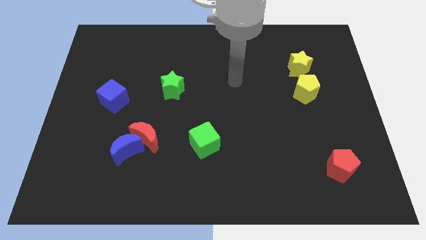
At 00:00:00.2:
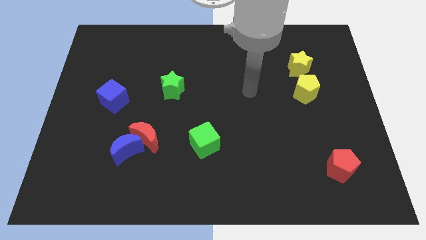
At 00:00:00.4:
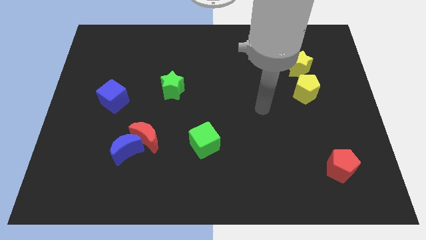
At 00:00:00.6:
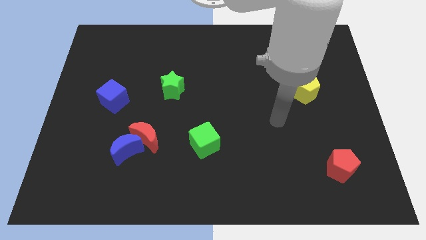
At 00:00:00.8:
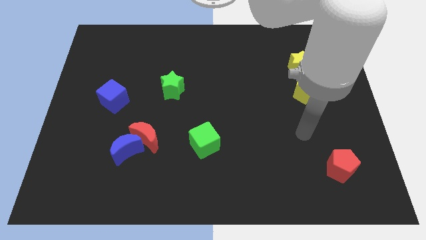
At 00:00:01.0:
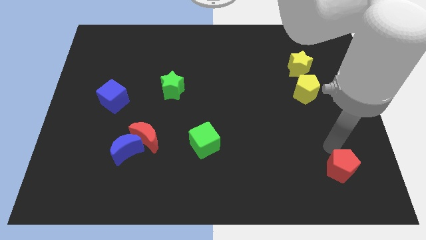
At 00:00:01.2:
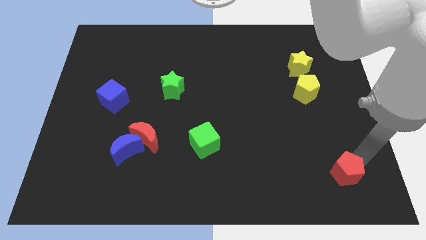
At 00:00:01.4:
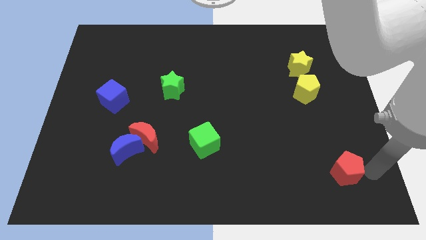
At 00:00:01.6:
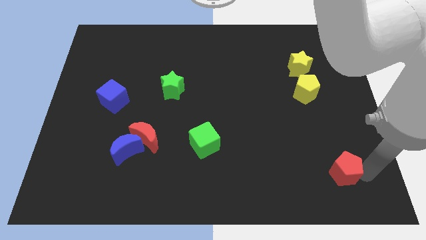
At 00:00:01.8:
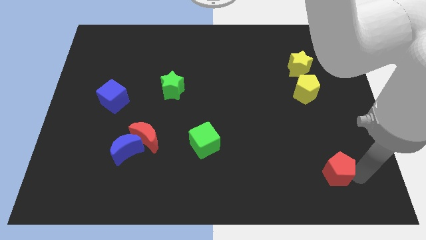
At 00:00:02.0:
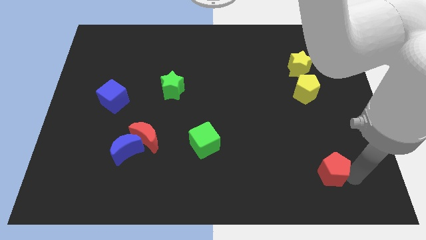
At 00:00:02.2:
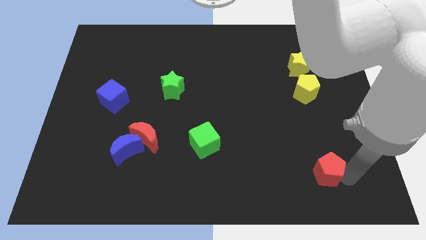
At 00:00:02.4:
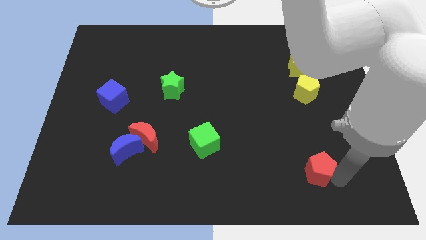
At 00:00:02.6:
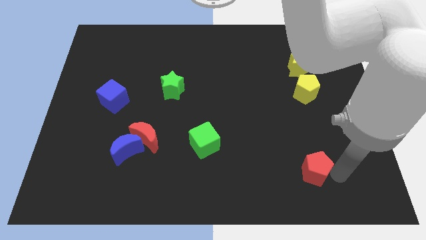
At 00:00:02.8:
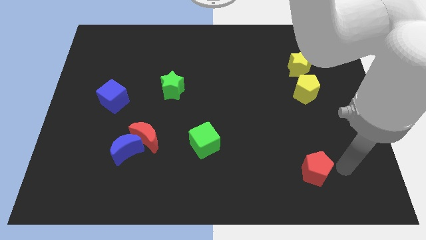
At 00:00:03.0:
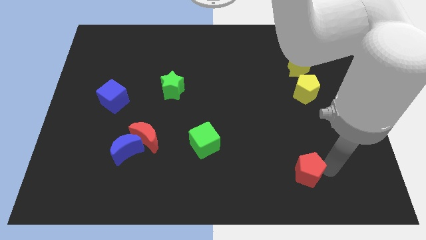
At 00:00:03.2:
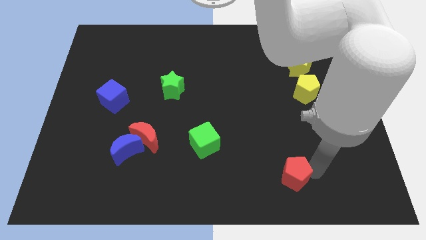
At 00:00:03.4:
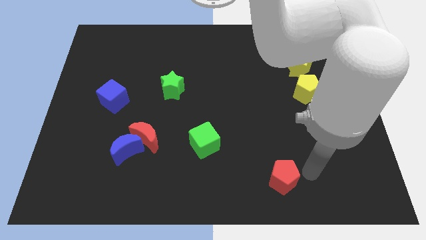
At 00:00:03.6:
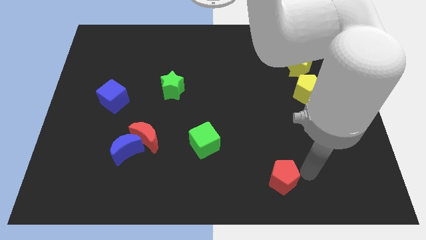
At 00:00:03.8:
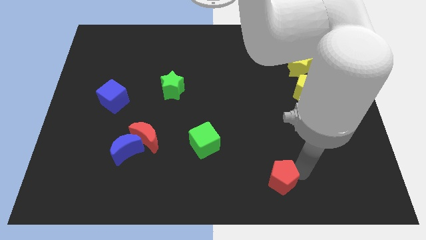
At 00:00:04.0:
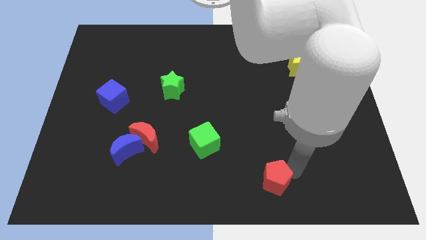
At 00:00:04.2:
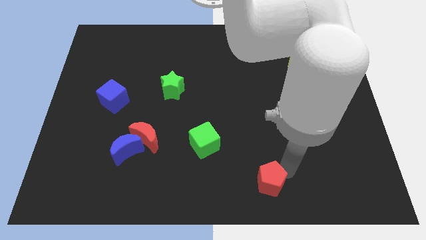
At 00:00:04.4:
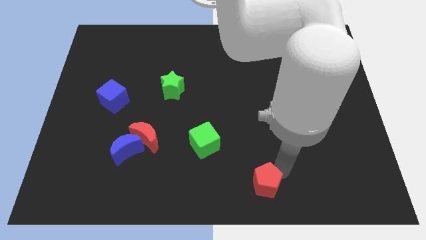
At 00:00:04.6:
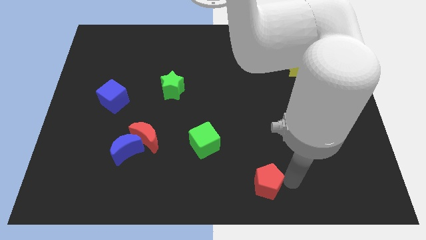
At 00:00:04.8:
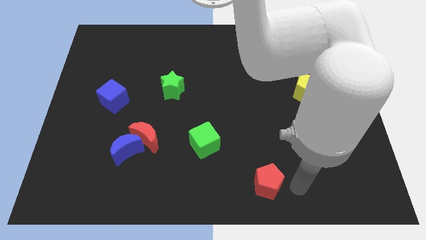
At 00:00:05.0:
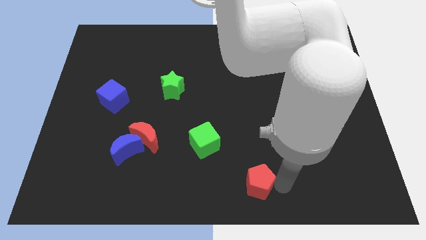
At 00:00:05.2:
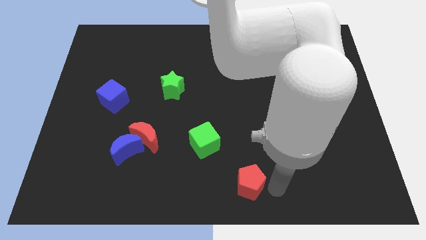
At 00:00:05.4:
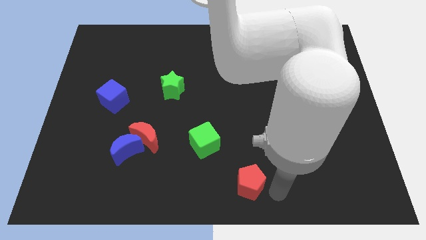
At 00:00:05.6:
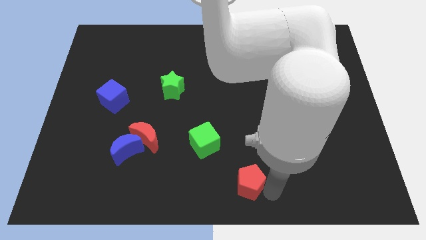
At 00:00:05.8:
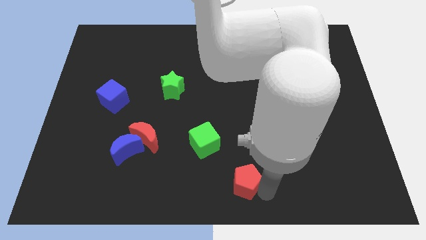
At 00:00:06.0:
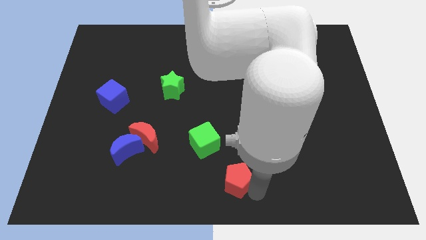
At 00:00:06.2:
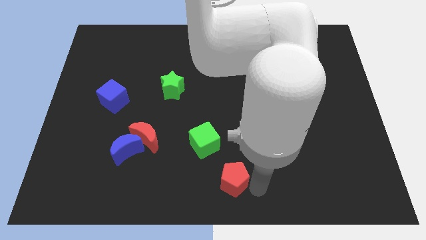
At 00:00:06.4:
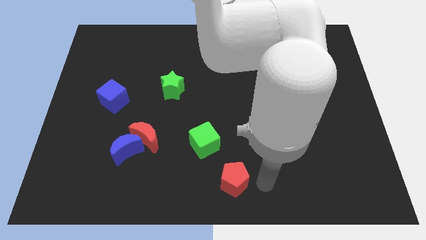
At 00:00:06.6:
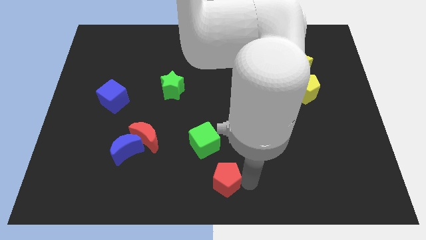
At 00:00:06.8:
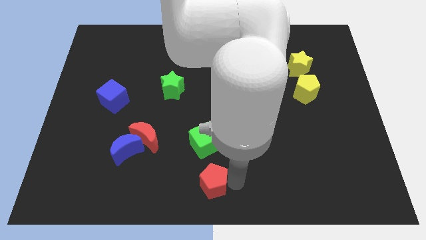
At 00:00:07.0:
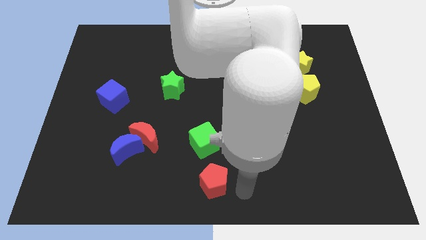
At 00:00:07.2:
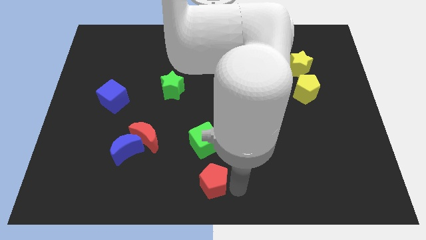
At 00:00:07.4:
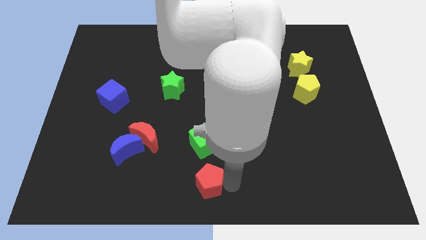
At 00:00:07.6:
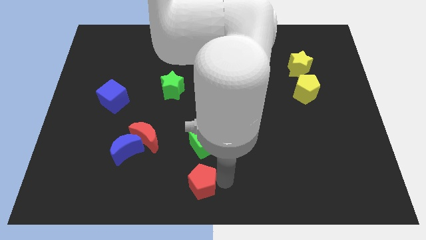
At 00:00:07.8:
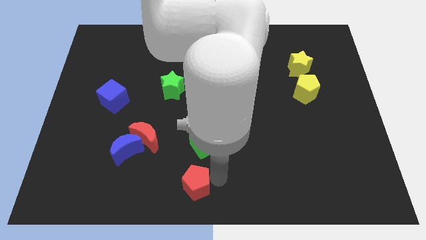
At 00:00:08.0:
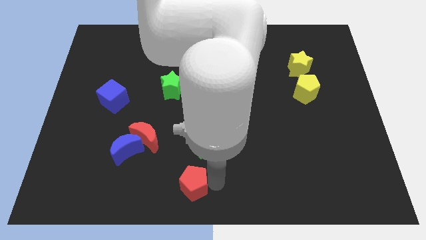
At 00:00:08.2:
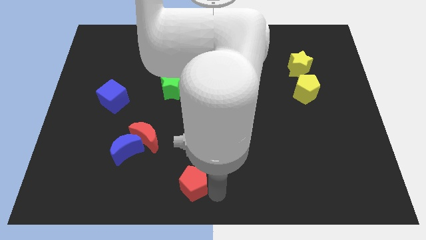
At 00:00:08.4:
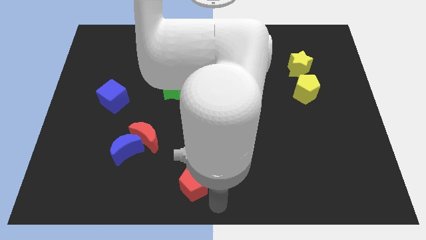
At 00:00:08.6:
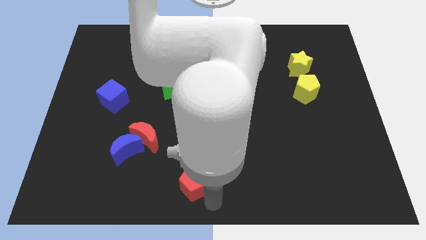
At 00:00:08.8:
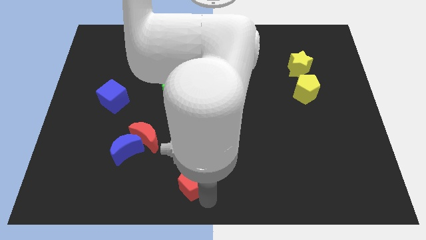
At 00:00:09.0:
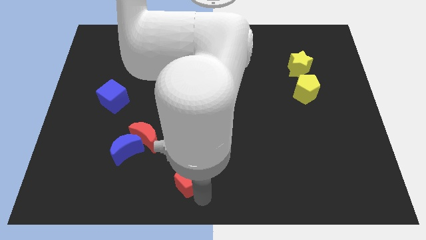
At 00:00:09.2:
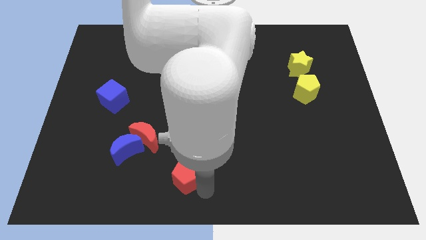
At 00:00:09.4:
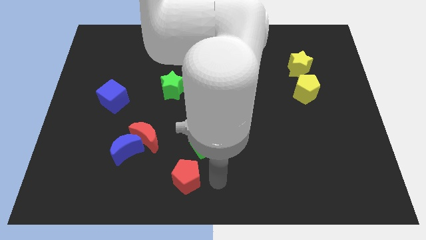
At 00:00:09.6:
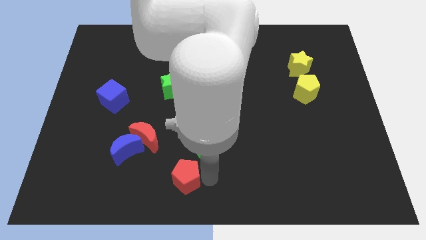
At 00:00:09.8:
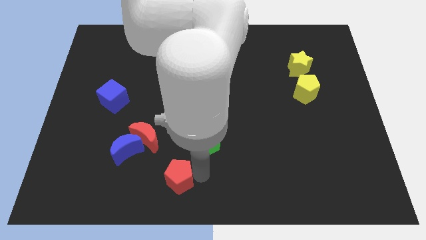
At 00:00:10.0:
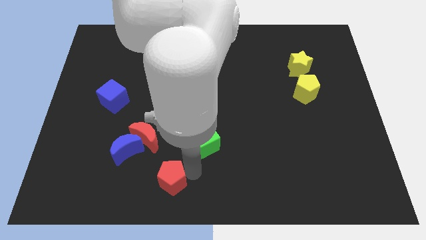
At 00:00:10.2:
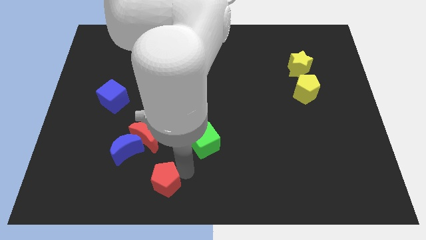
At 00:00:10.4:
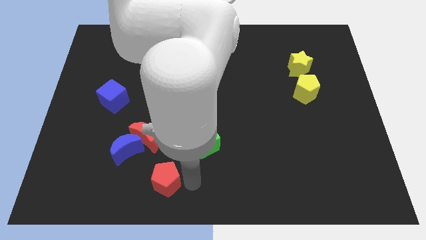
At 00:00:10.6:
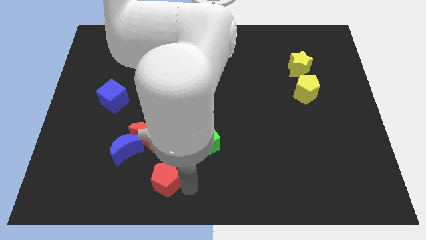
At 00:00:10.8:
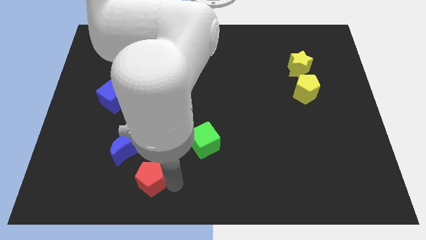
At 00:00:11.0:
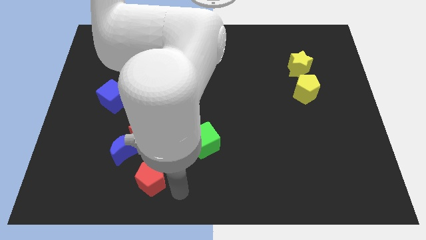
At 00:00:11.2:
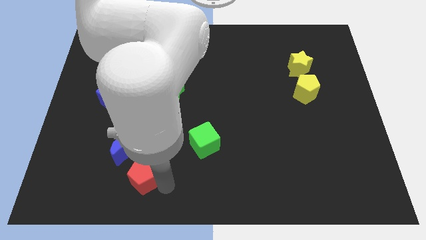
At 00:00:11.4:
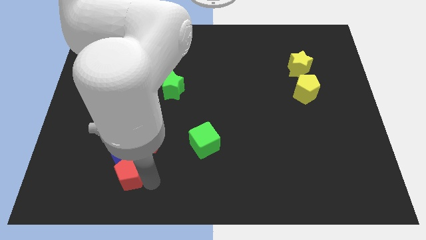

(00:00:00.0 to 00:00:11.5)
put the red pentagon to the bottom left side of the red moon

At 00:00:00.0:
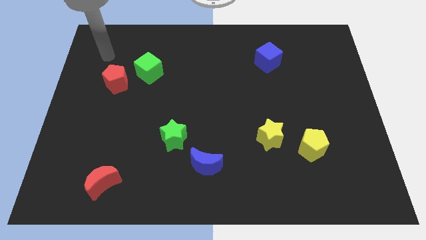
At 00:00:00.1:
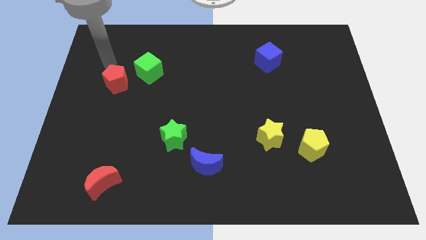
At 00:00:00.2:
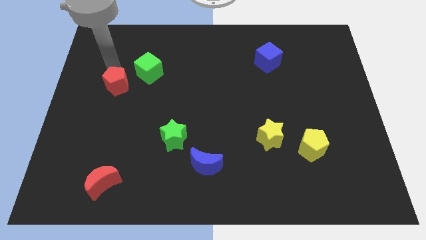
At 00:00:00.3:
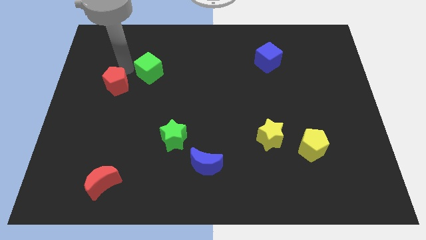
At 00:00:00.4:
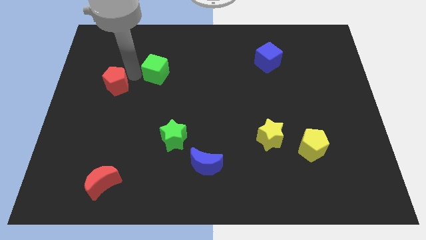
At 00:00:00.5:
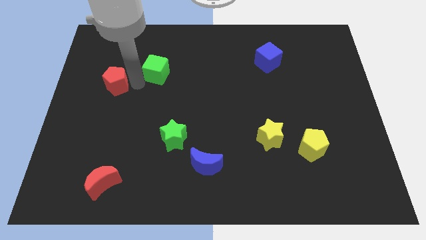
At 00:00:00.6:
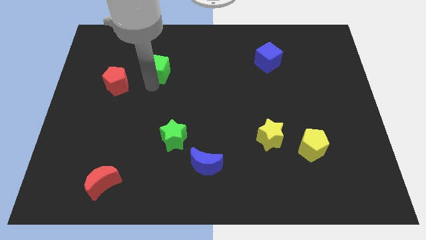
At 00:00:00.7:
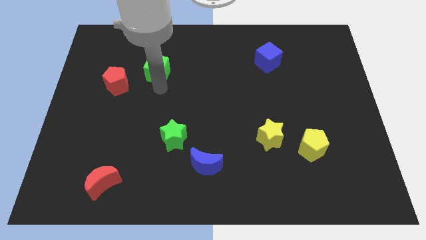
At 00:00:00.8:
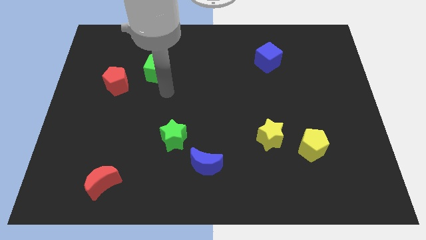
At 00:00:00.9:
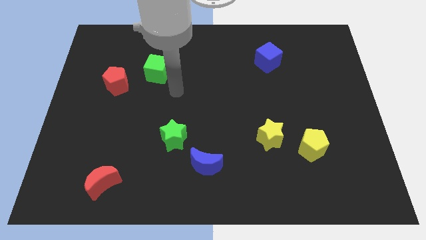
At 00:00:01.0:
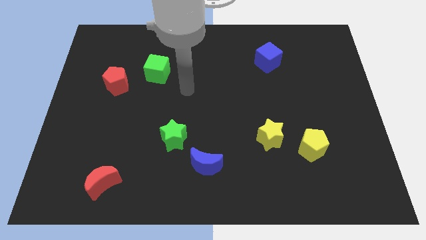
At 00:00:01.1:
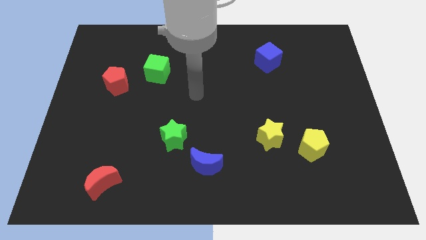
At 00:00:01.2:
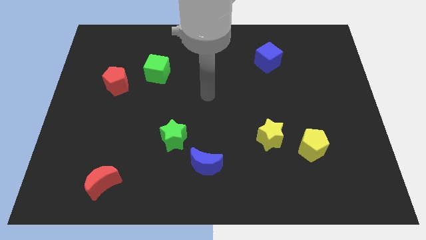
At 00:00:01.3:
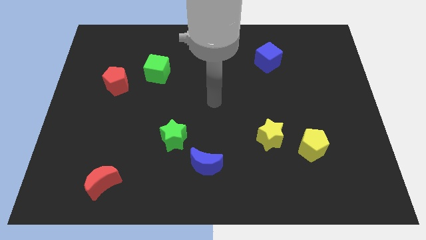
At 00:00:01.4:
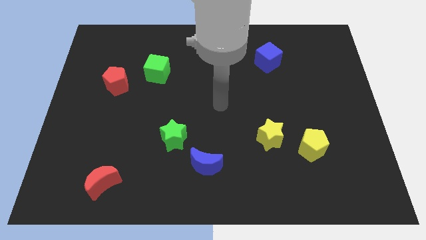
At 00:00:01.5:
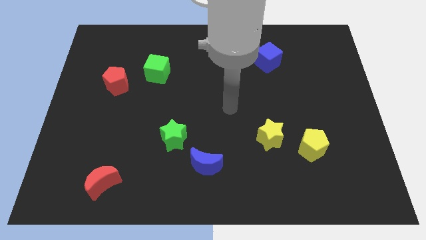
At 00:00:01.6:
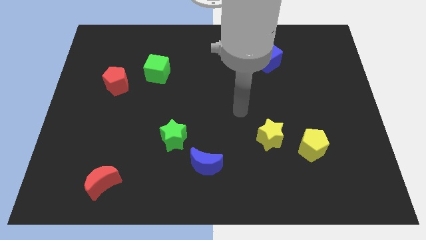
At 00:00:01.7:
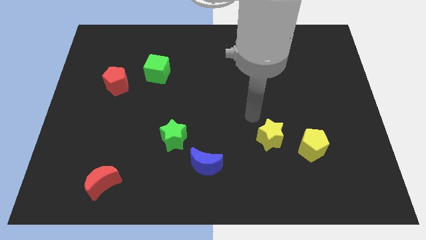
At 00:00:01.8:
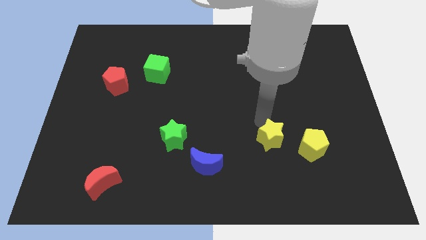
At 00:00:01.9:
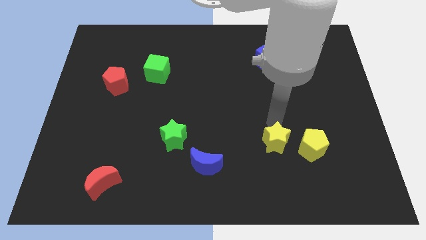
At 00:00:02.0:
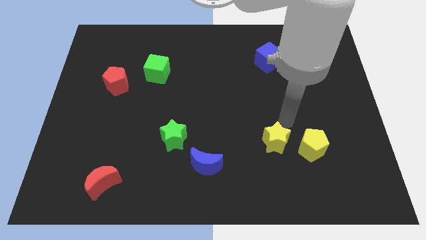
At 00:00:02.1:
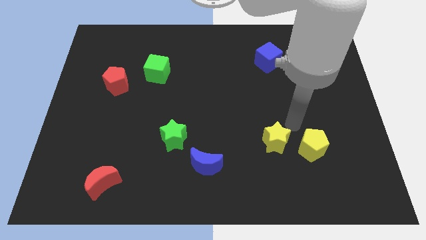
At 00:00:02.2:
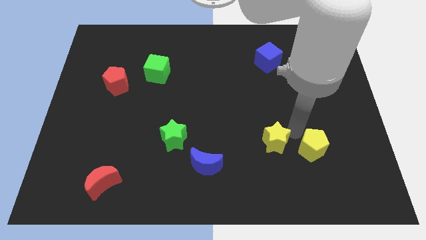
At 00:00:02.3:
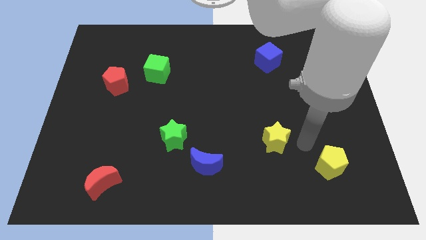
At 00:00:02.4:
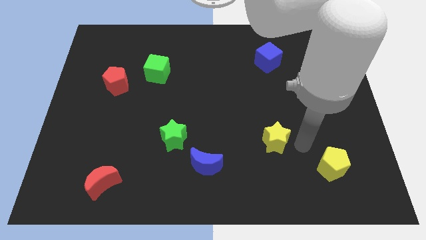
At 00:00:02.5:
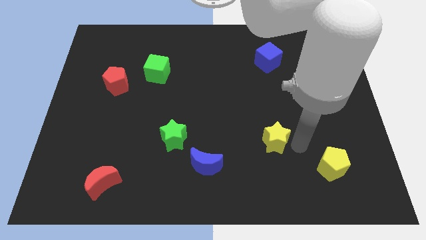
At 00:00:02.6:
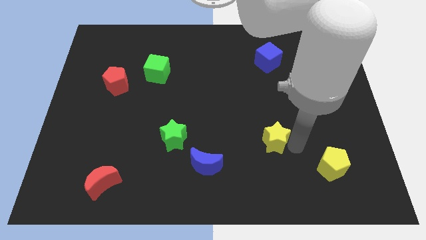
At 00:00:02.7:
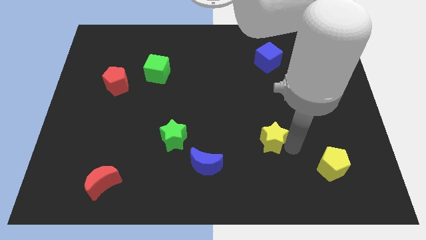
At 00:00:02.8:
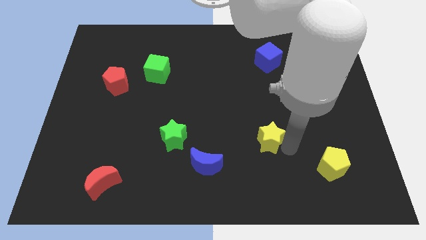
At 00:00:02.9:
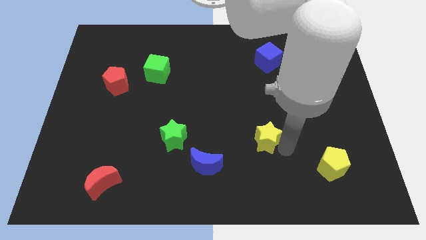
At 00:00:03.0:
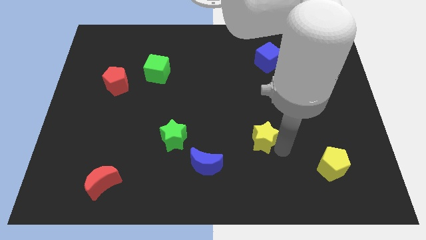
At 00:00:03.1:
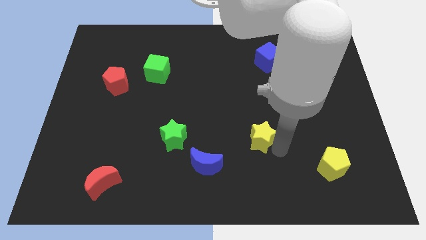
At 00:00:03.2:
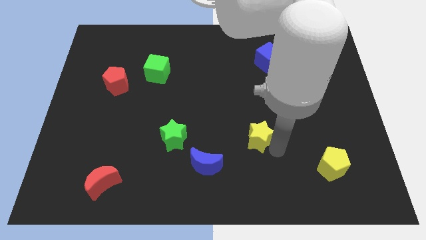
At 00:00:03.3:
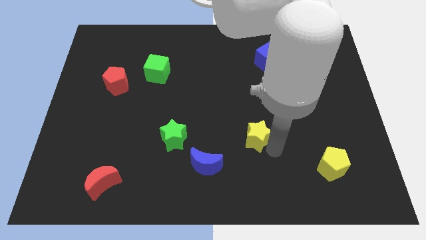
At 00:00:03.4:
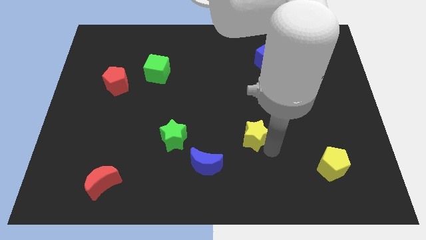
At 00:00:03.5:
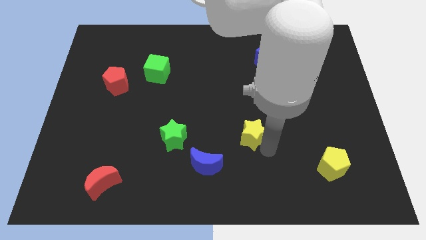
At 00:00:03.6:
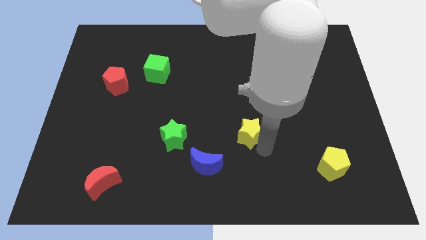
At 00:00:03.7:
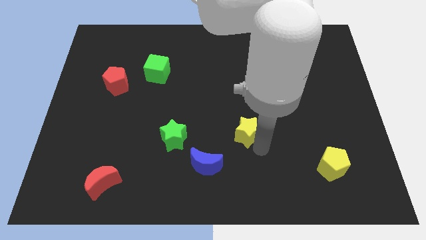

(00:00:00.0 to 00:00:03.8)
push the yellow star just right of the green star
